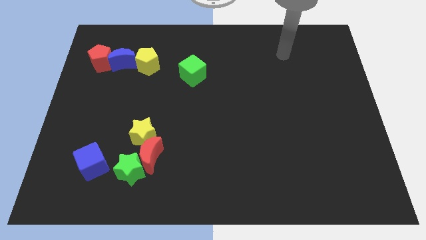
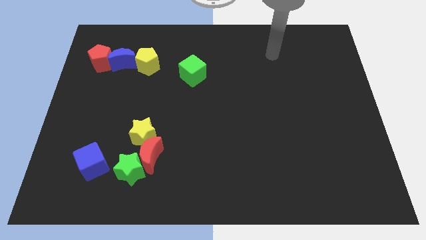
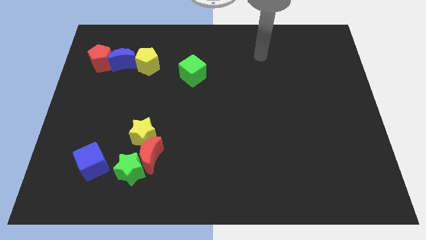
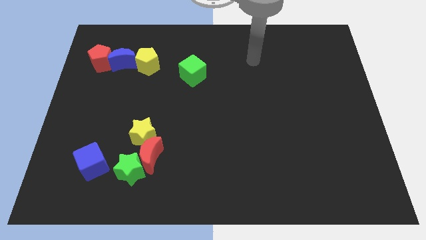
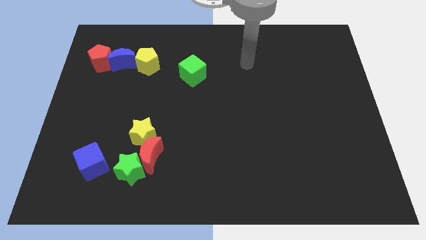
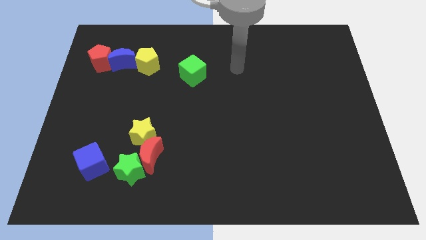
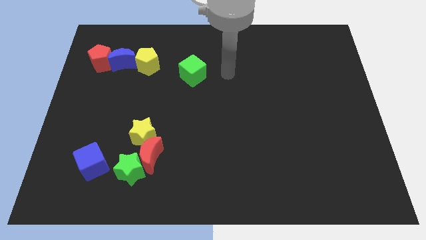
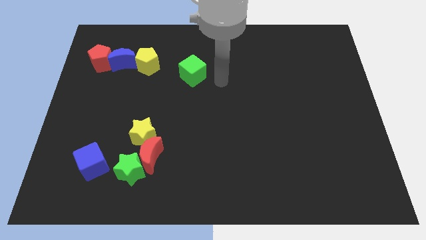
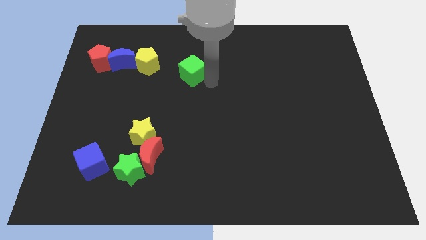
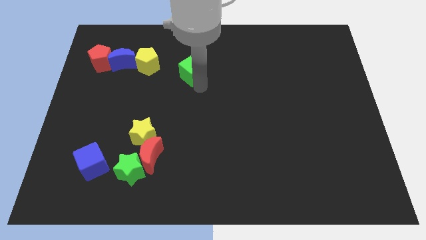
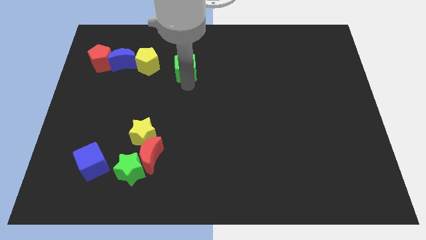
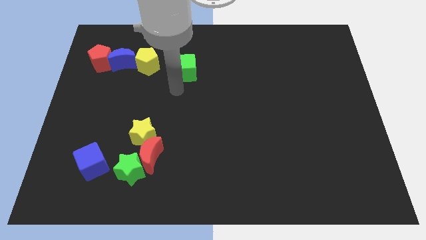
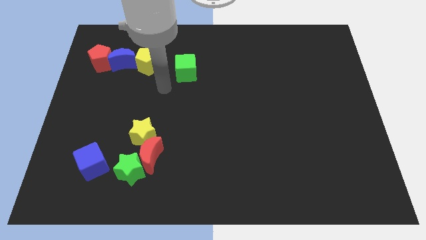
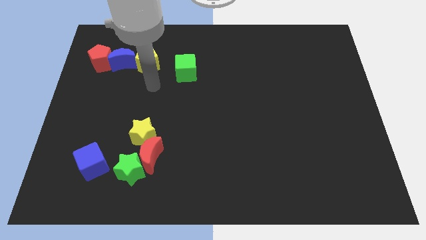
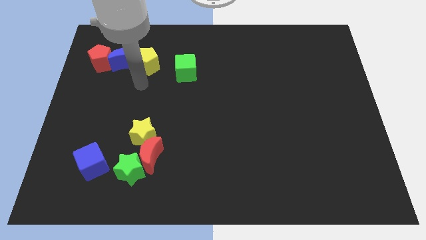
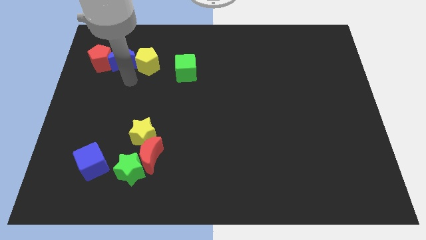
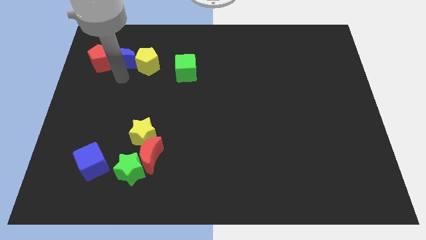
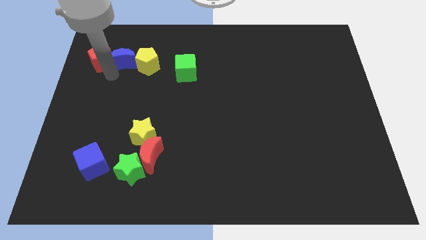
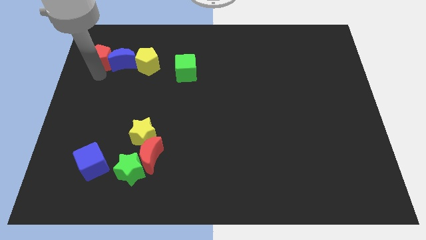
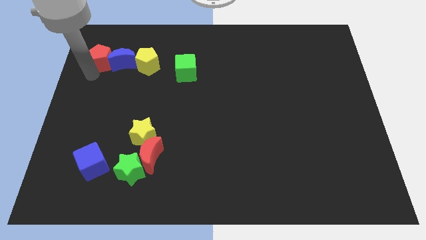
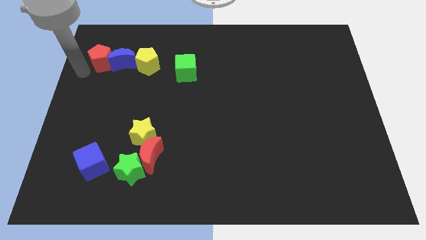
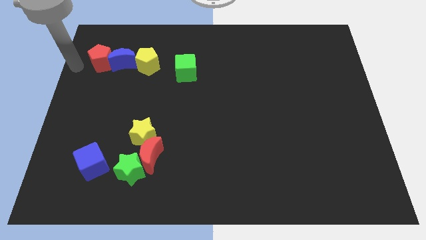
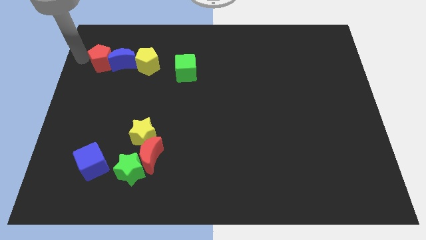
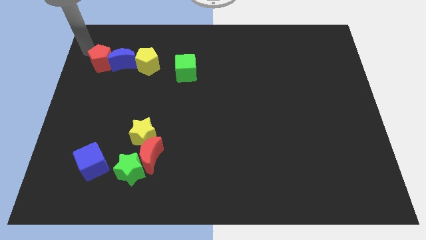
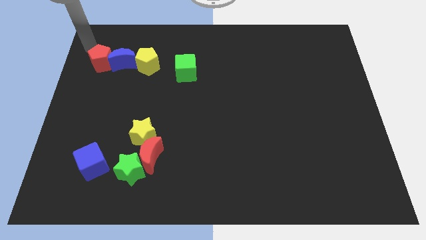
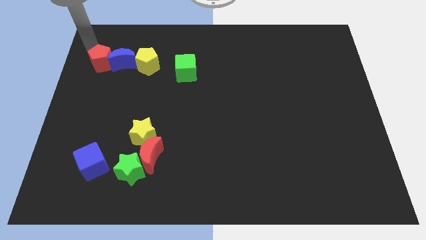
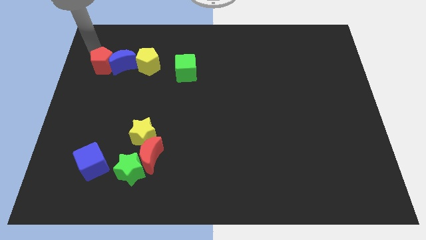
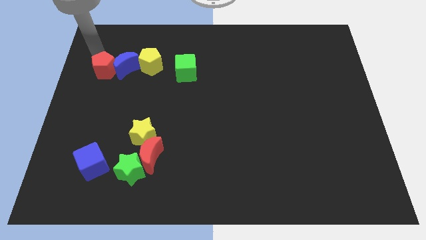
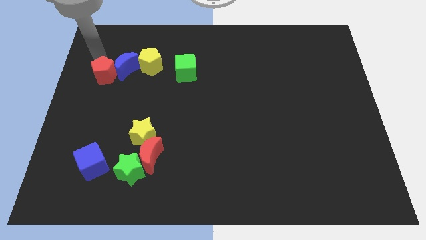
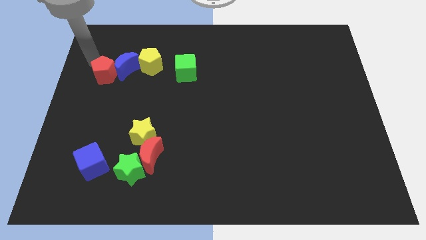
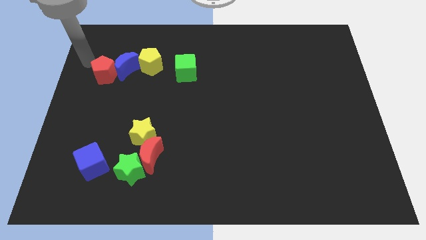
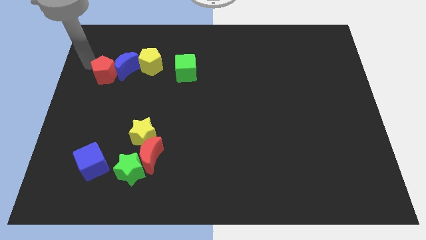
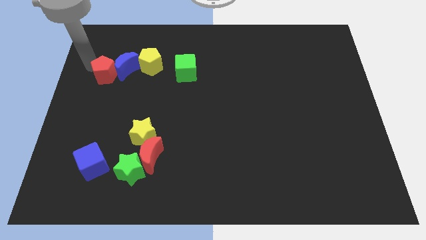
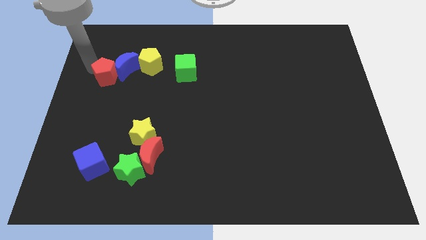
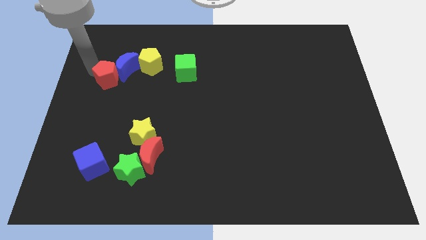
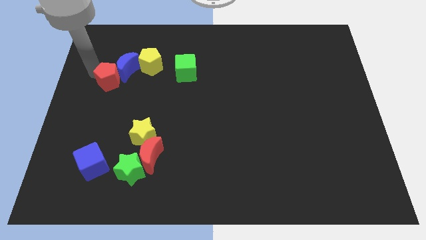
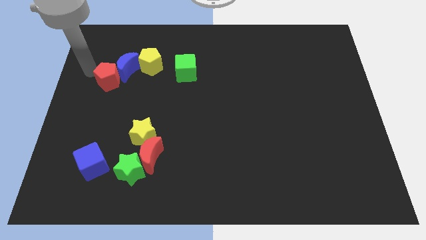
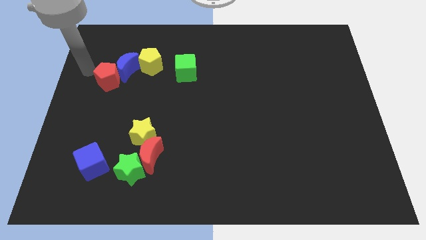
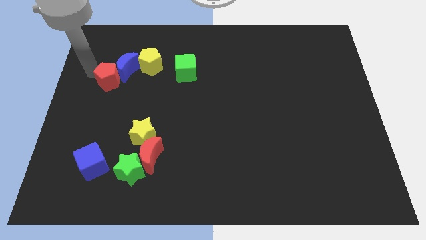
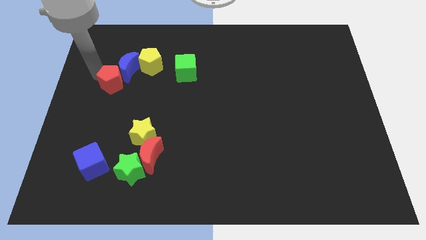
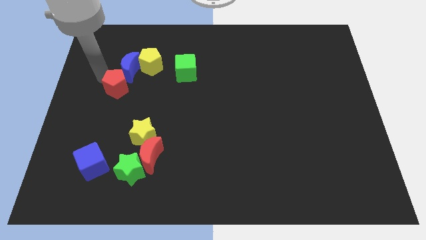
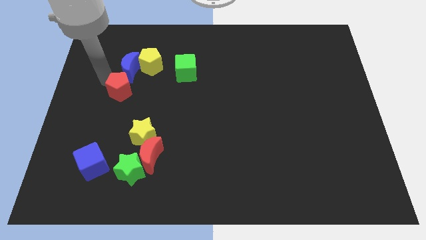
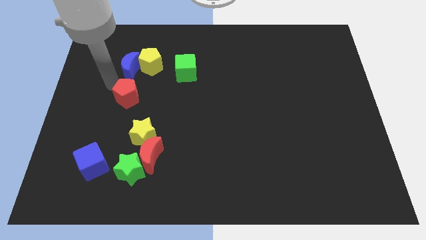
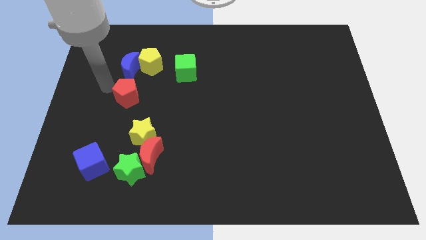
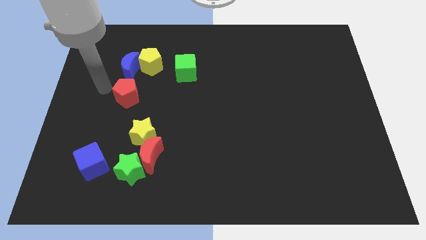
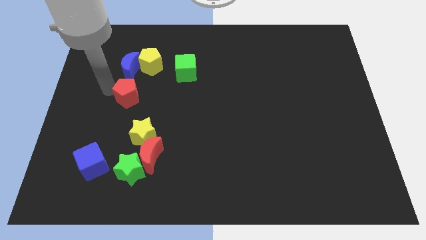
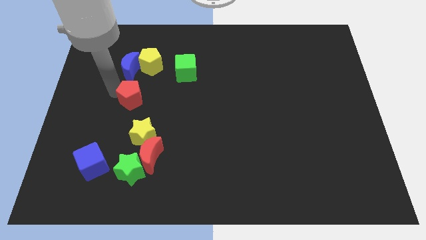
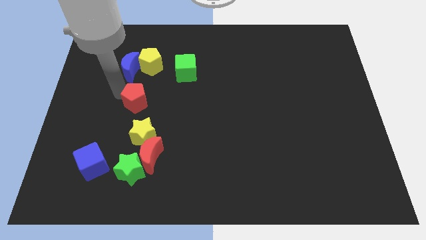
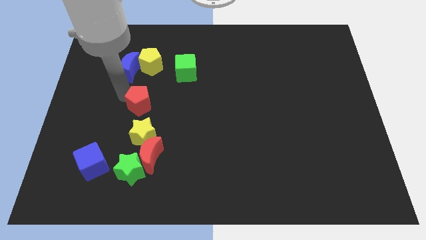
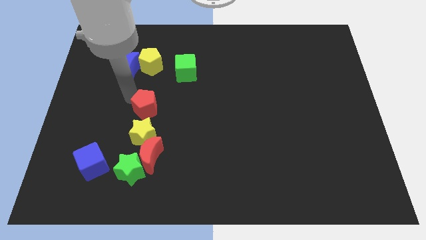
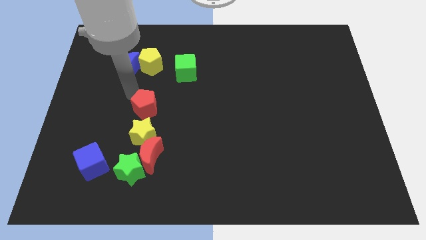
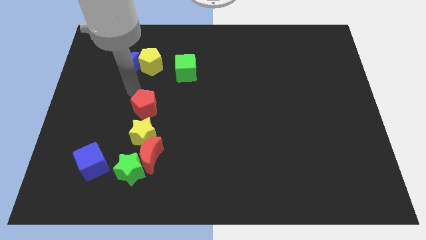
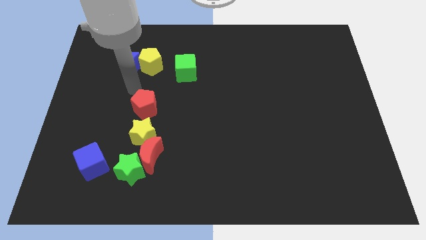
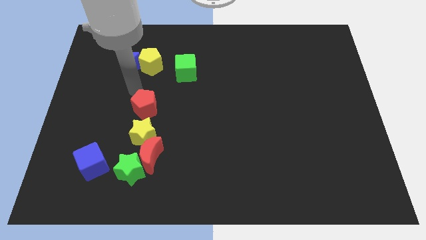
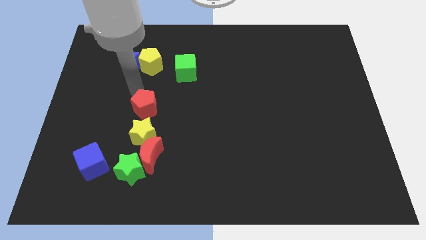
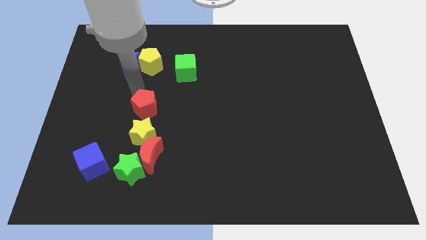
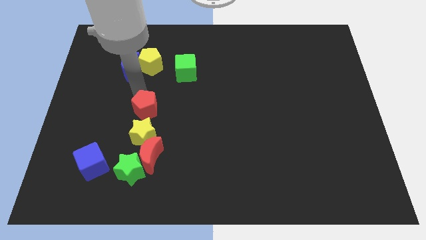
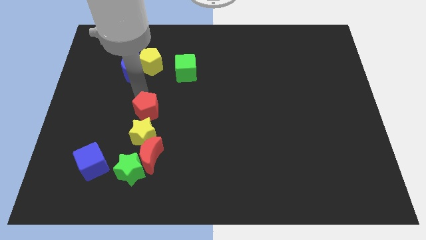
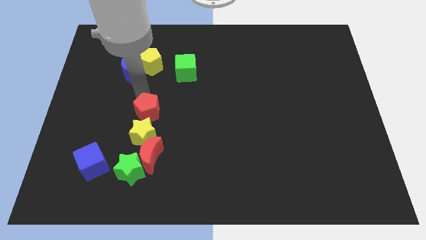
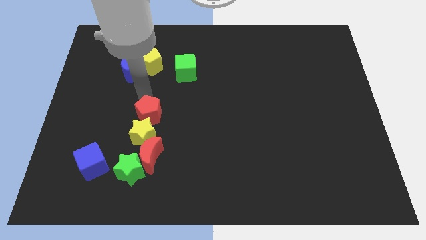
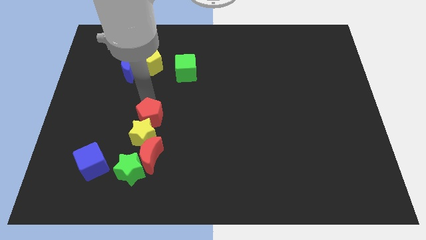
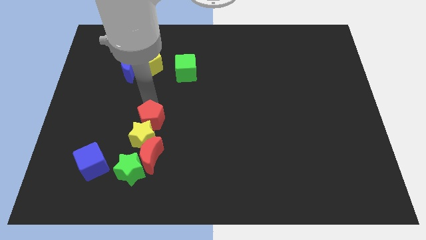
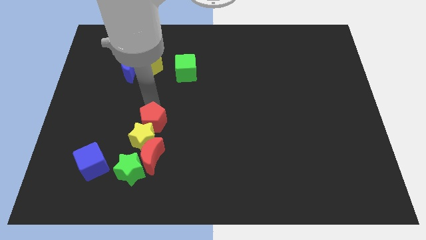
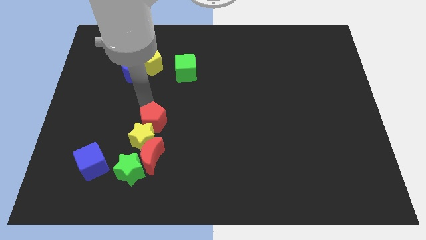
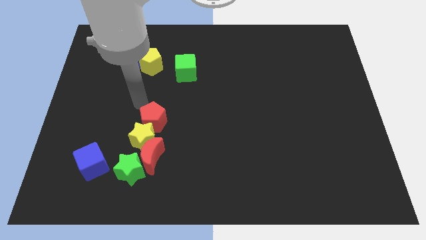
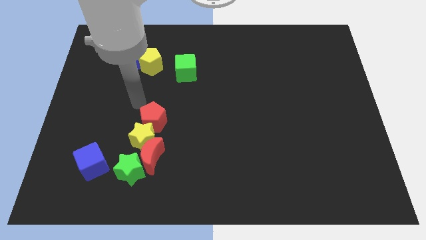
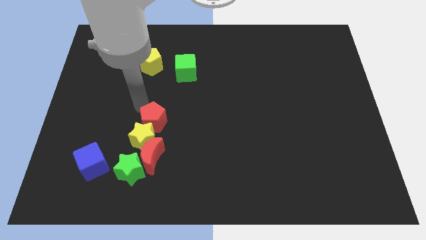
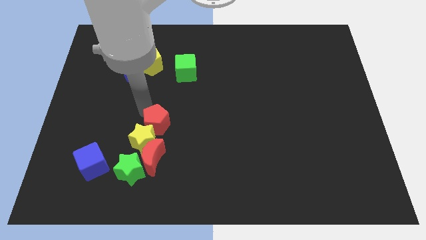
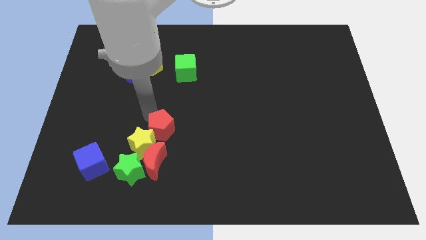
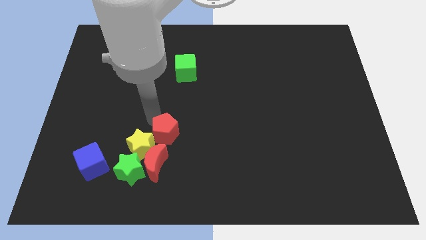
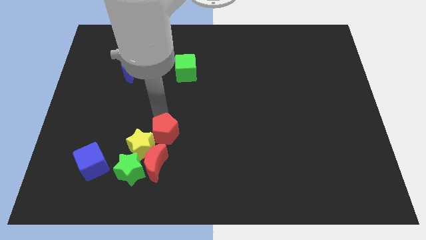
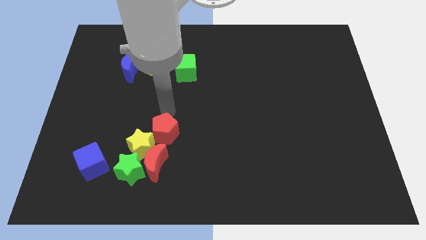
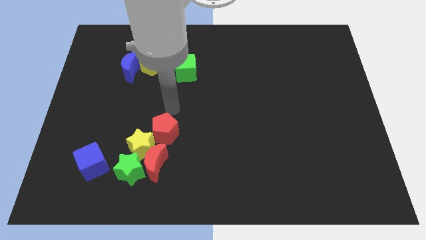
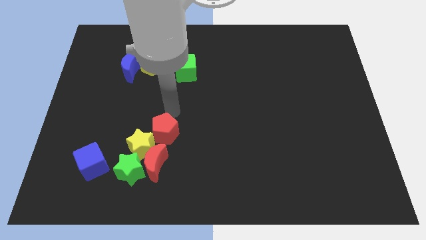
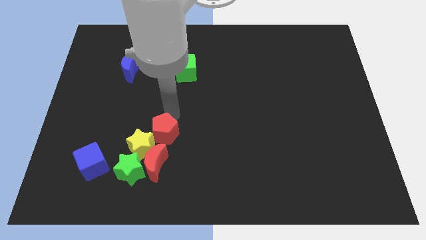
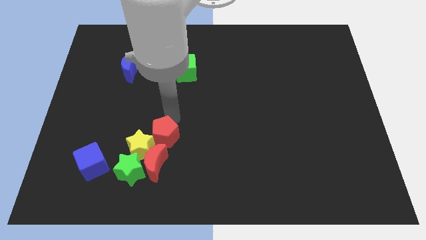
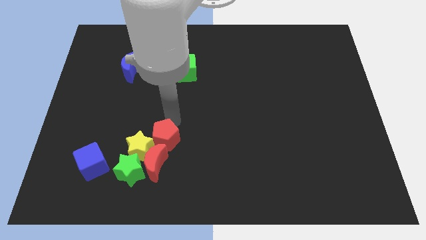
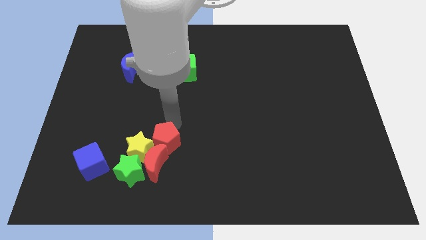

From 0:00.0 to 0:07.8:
put the red pentagon to the red moon
